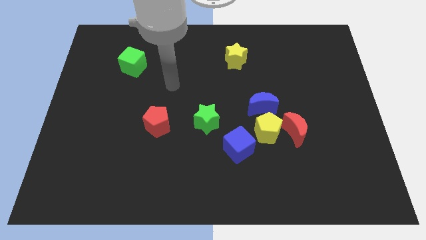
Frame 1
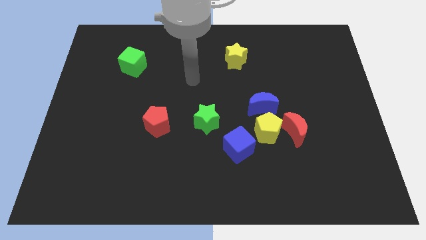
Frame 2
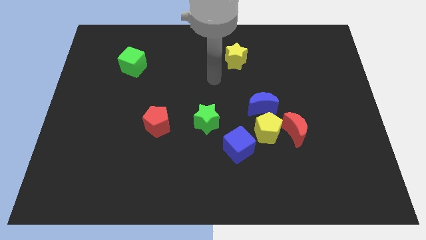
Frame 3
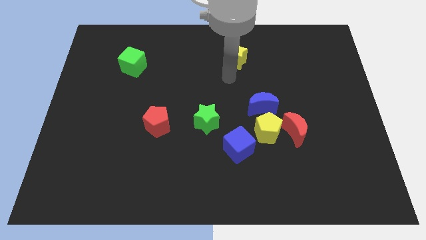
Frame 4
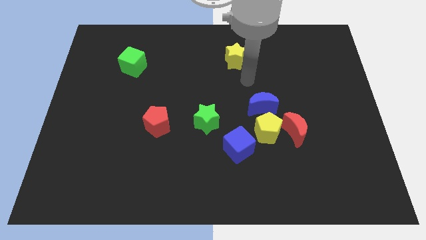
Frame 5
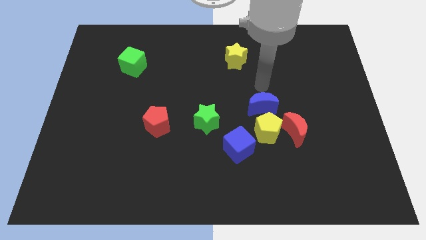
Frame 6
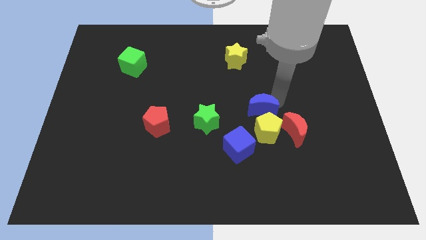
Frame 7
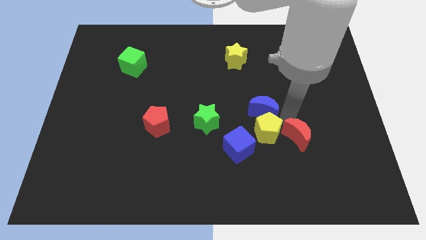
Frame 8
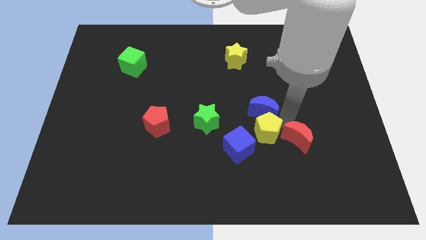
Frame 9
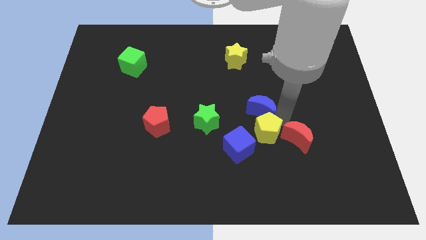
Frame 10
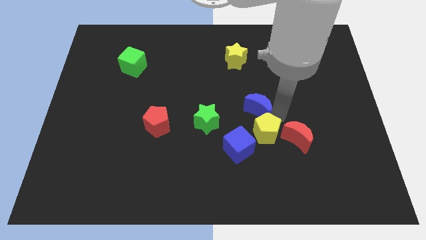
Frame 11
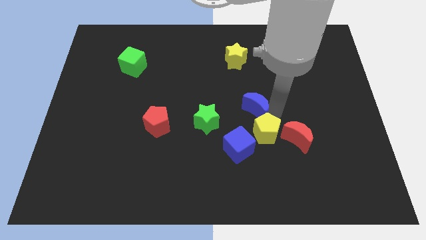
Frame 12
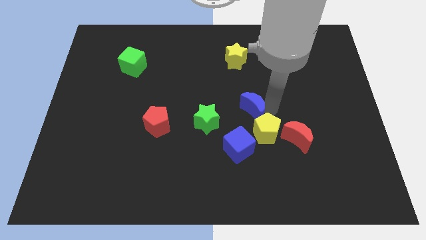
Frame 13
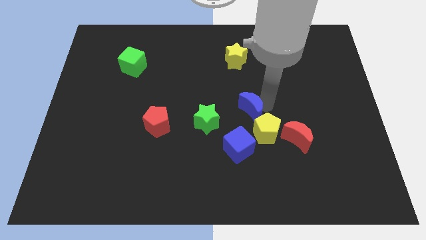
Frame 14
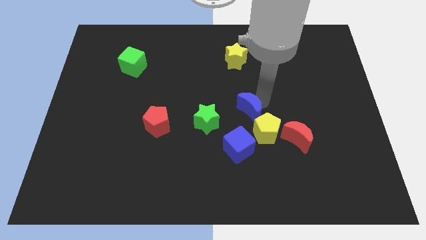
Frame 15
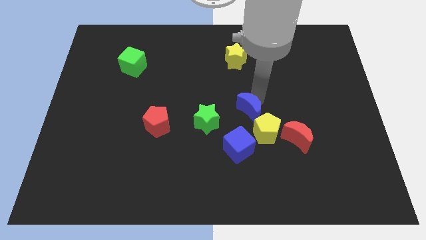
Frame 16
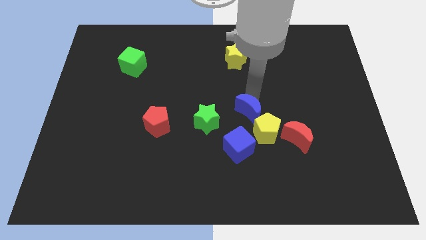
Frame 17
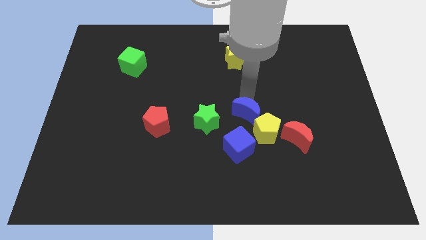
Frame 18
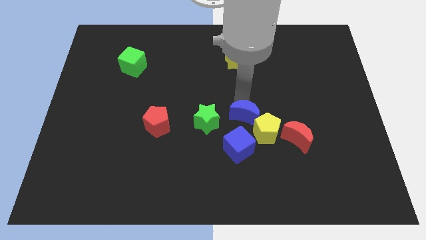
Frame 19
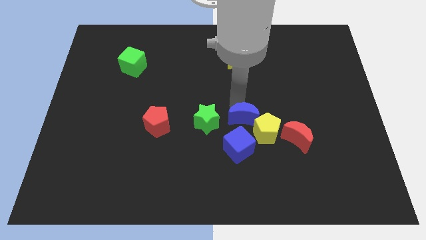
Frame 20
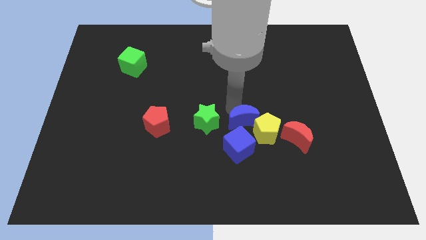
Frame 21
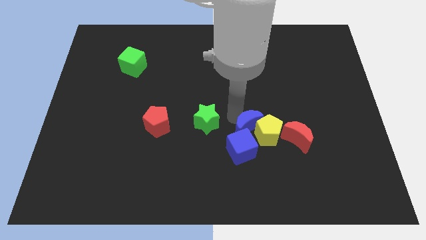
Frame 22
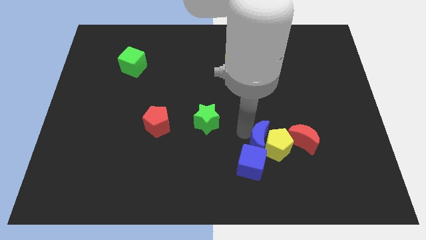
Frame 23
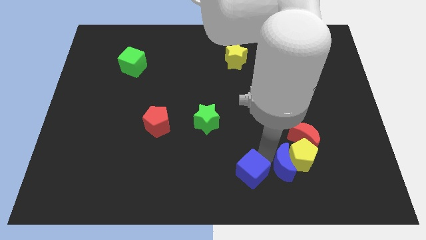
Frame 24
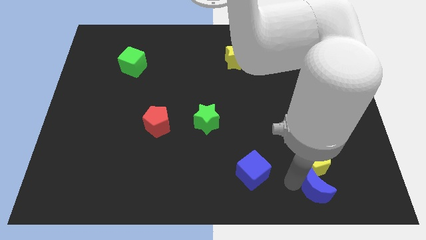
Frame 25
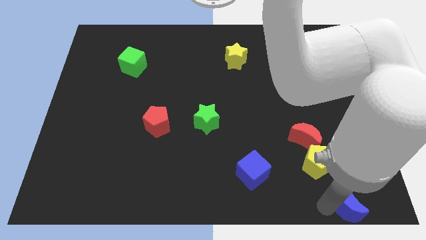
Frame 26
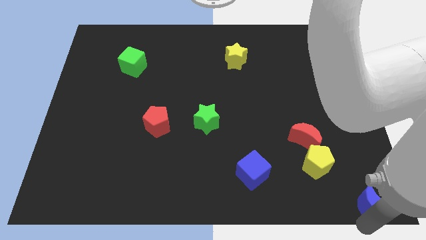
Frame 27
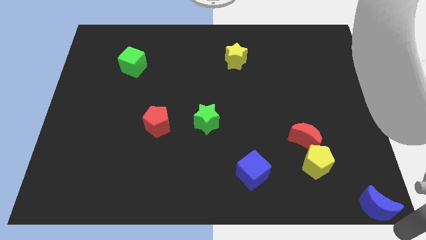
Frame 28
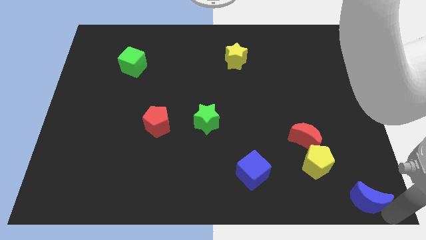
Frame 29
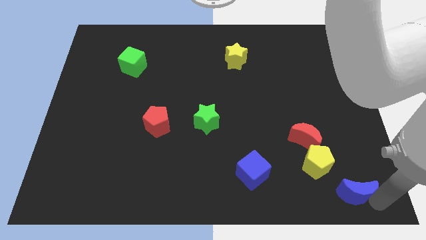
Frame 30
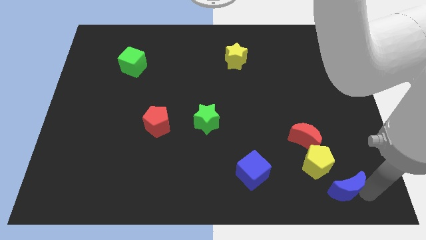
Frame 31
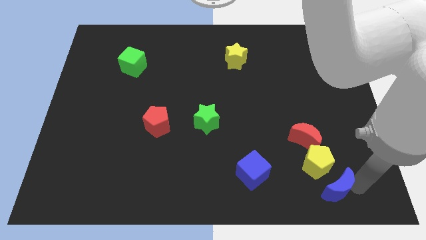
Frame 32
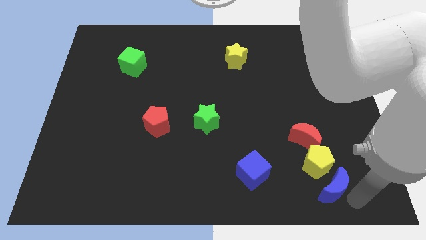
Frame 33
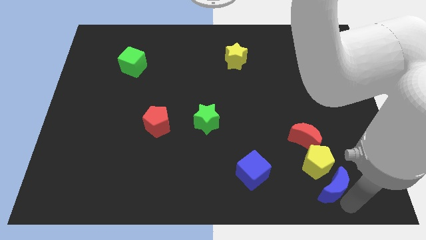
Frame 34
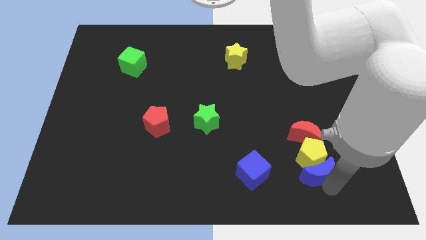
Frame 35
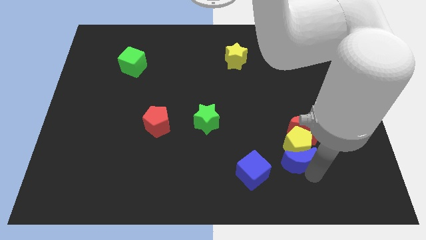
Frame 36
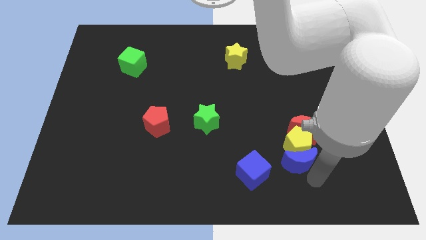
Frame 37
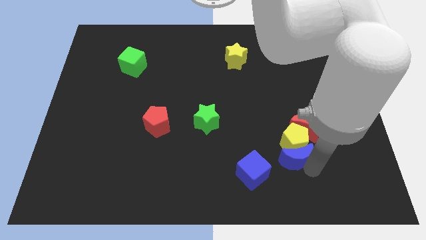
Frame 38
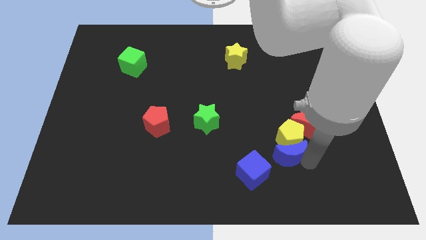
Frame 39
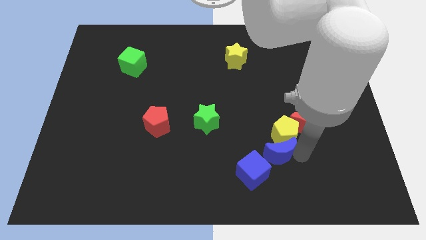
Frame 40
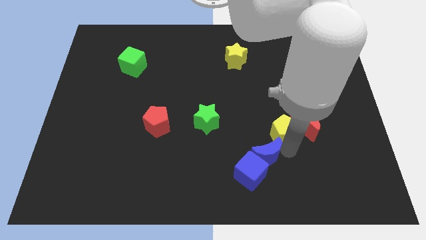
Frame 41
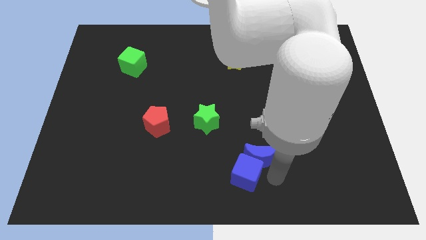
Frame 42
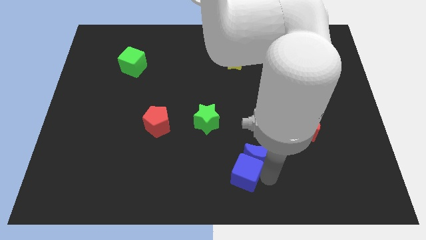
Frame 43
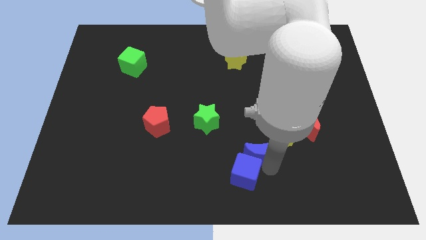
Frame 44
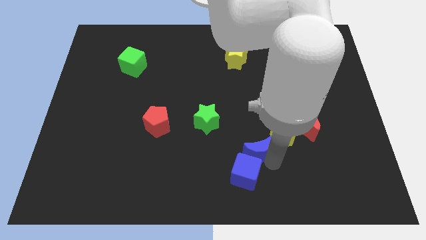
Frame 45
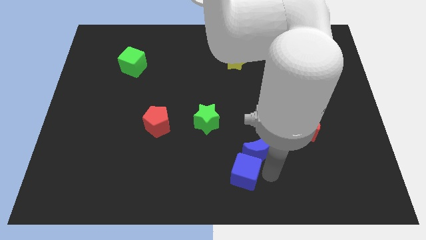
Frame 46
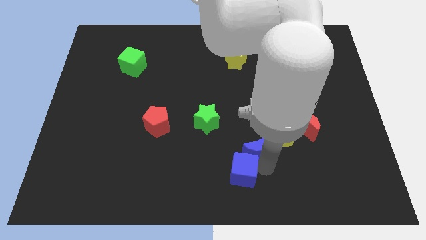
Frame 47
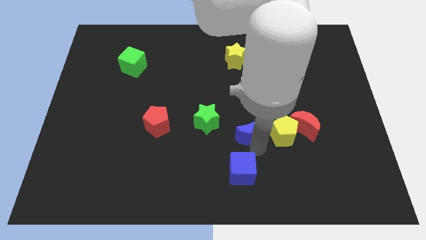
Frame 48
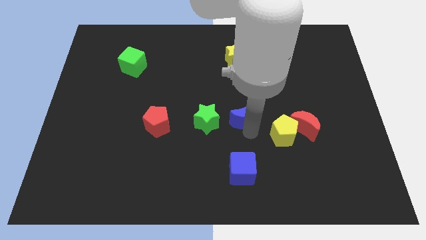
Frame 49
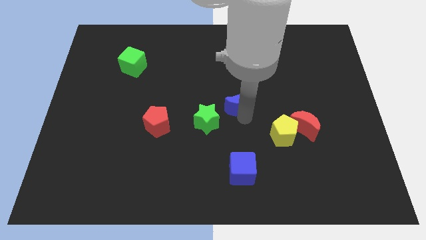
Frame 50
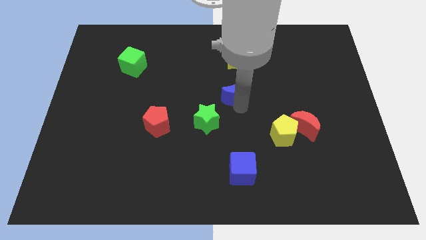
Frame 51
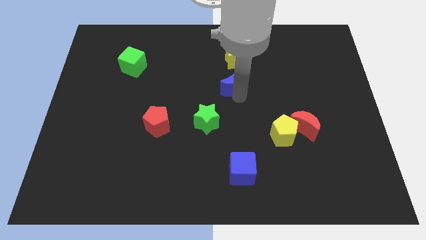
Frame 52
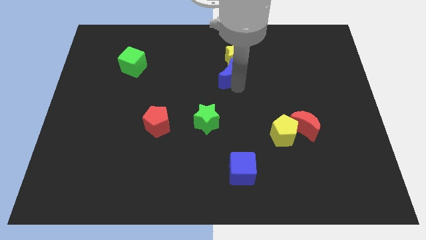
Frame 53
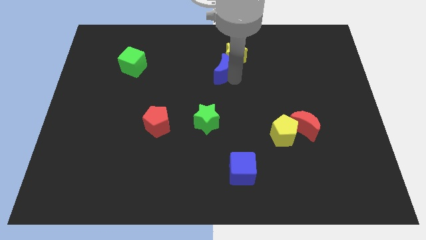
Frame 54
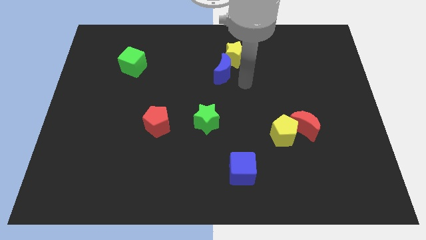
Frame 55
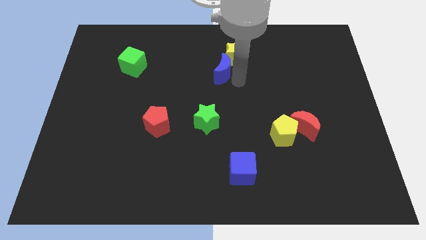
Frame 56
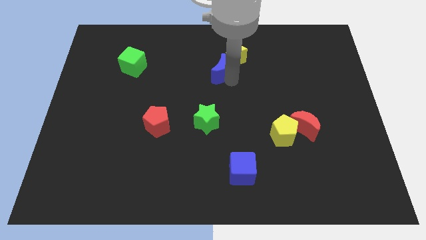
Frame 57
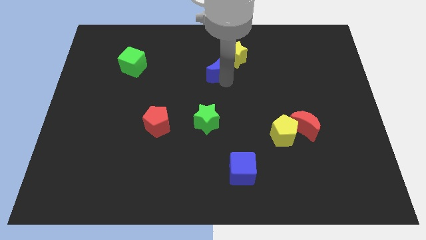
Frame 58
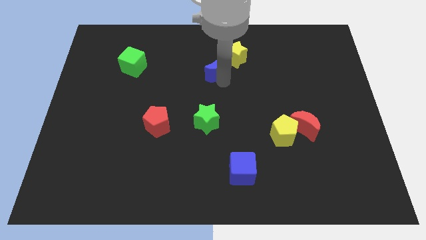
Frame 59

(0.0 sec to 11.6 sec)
move the blue moon to the left side of the yellow star

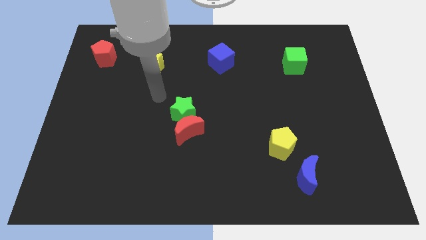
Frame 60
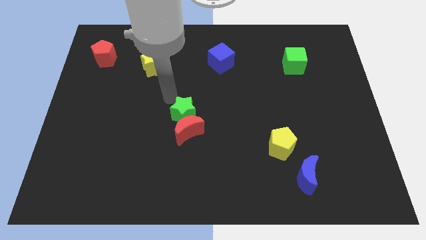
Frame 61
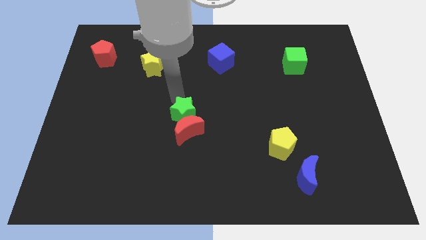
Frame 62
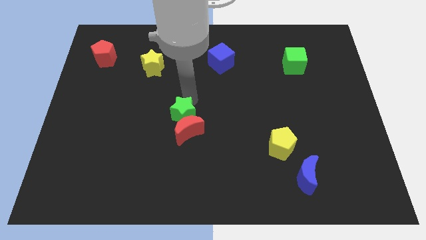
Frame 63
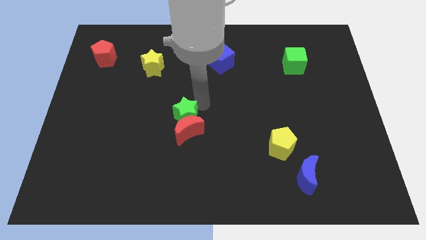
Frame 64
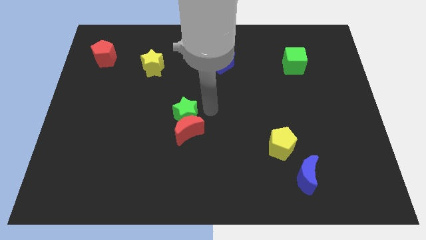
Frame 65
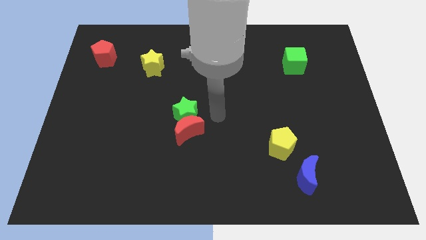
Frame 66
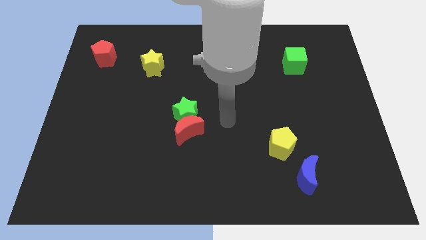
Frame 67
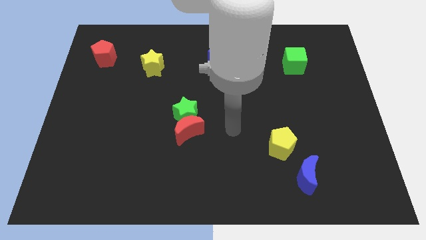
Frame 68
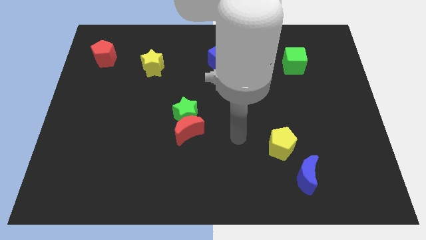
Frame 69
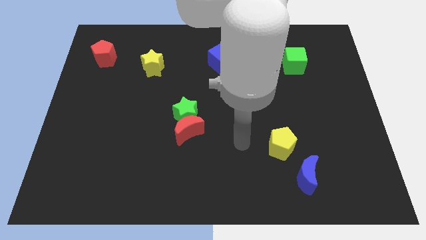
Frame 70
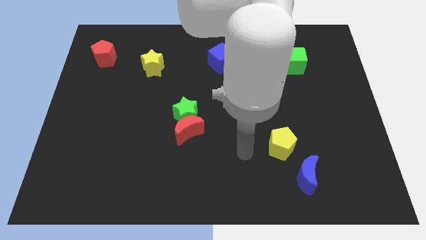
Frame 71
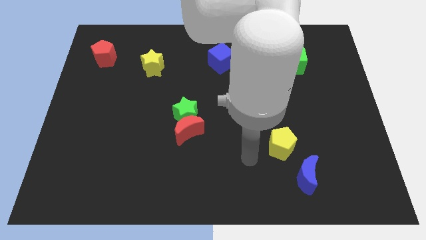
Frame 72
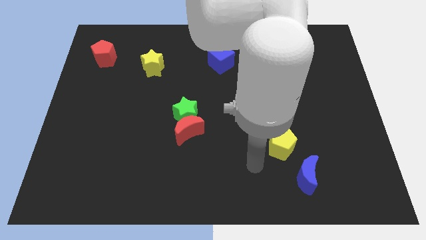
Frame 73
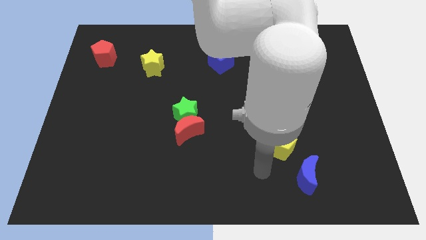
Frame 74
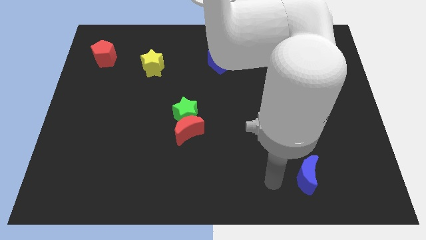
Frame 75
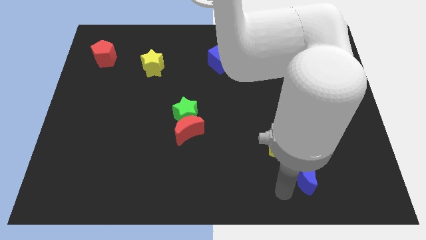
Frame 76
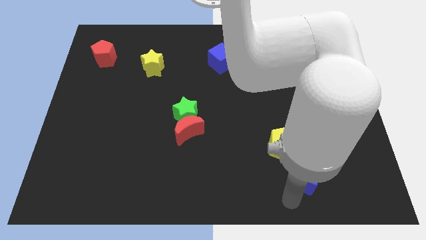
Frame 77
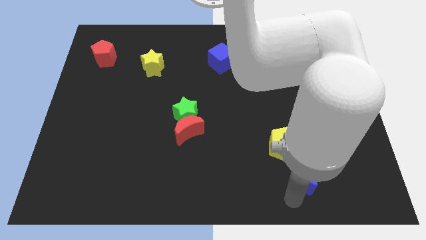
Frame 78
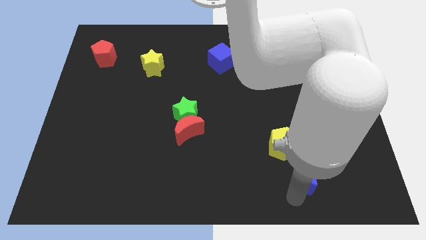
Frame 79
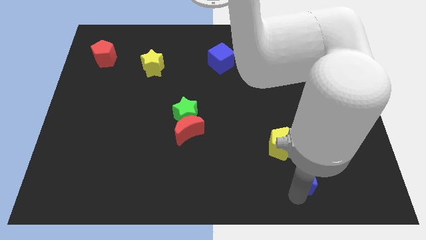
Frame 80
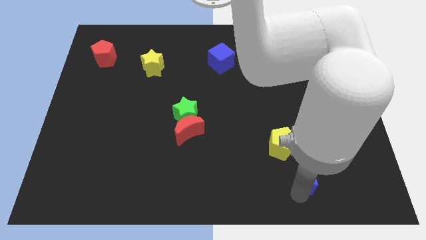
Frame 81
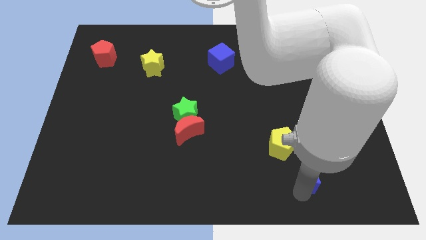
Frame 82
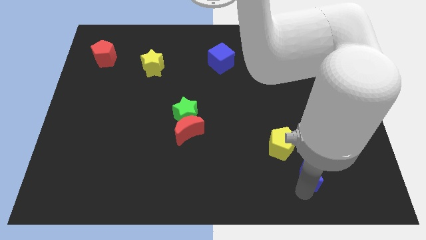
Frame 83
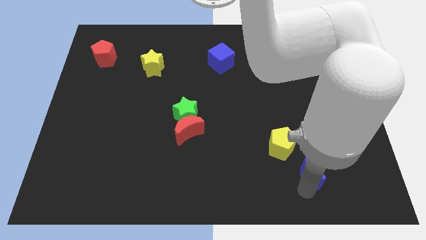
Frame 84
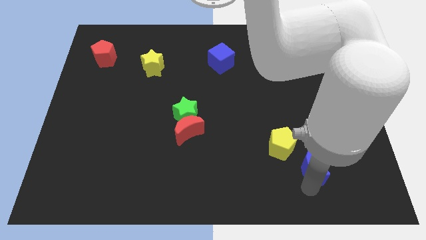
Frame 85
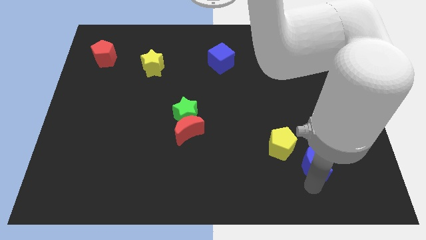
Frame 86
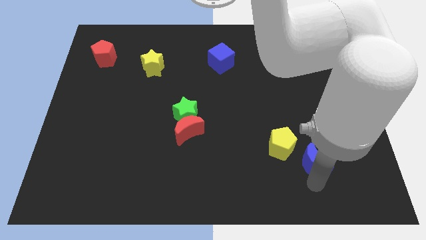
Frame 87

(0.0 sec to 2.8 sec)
push the blue moon to the right of the yellow pentagon
